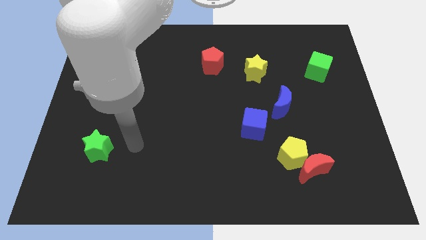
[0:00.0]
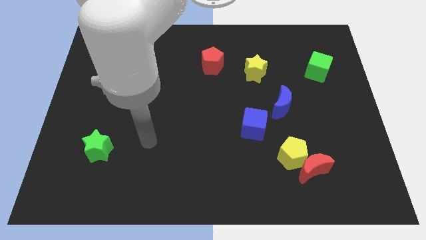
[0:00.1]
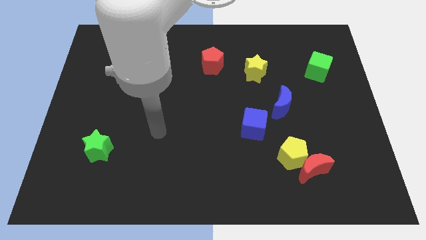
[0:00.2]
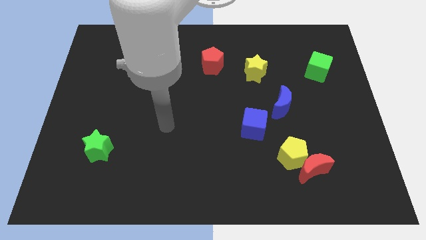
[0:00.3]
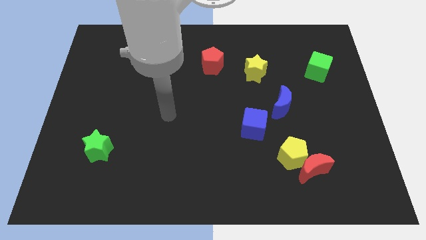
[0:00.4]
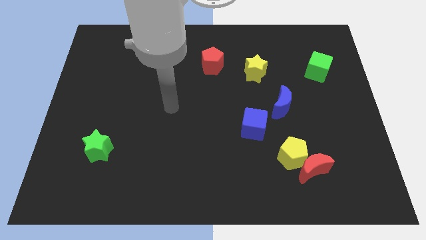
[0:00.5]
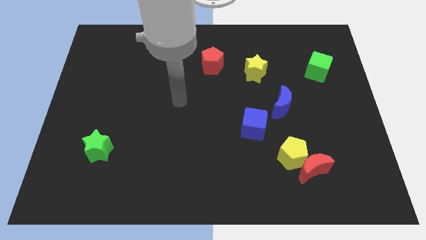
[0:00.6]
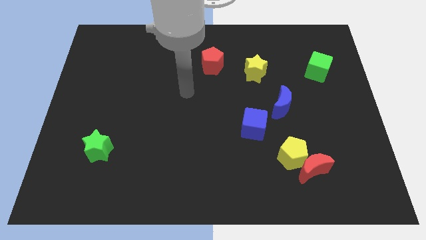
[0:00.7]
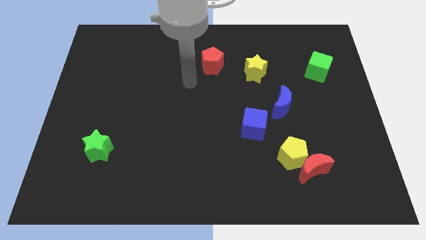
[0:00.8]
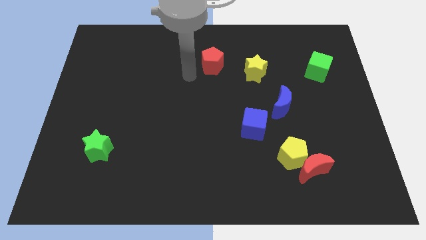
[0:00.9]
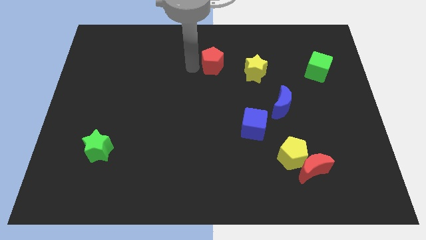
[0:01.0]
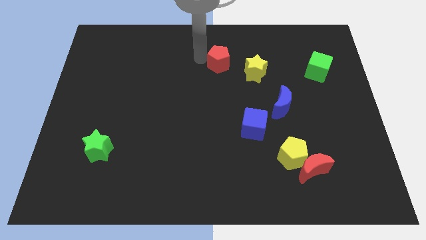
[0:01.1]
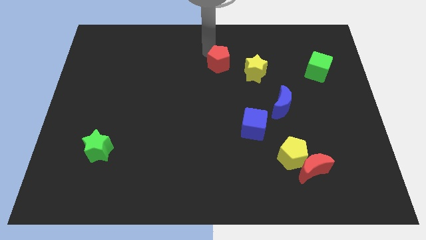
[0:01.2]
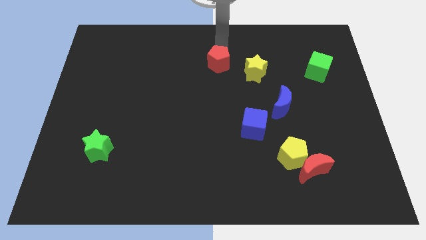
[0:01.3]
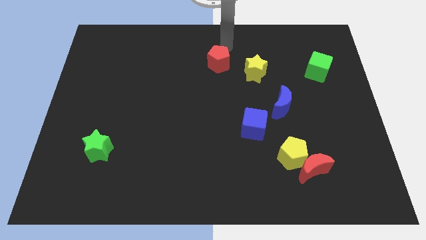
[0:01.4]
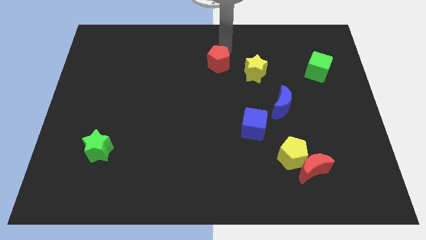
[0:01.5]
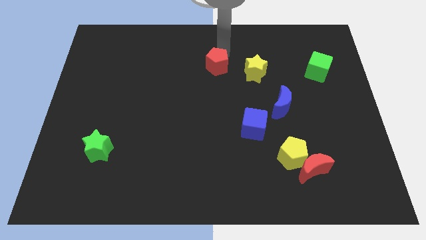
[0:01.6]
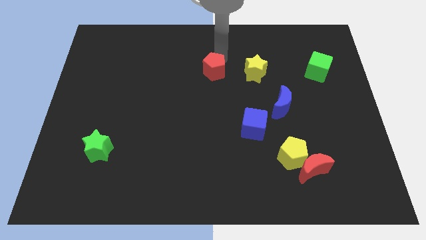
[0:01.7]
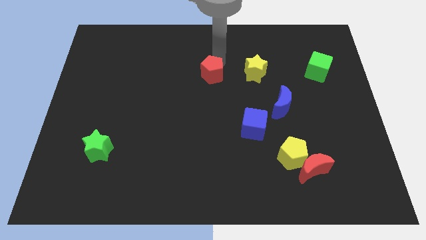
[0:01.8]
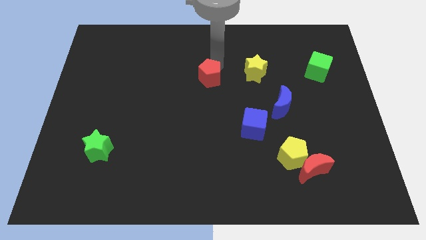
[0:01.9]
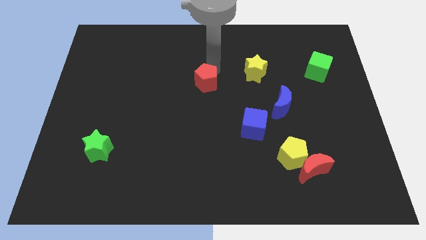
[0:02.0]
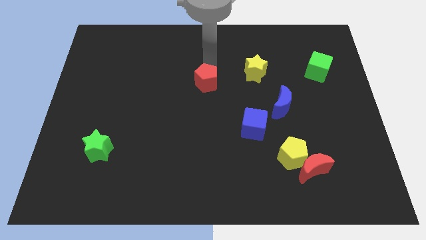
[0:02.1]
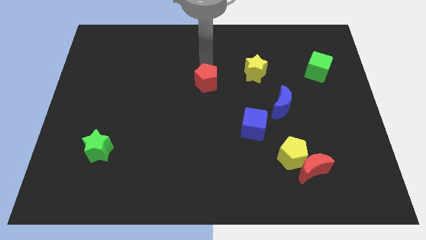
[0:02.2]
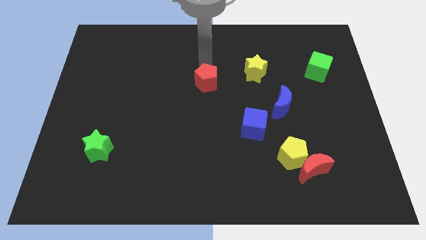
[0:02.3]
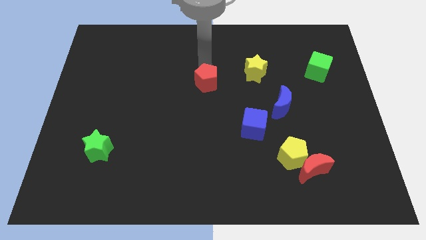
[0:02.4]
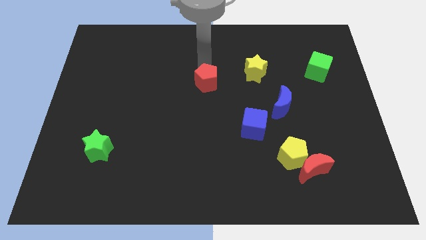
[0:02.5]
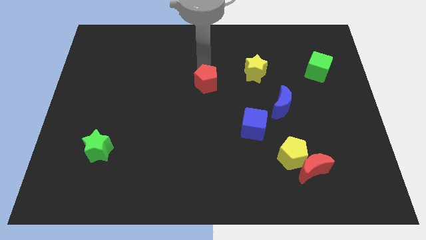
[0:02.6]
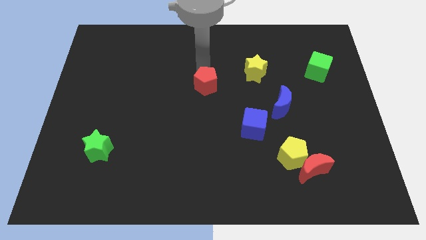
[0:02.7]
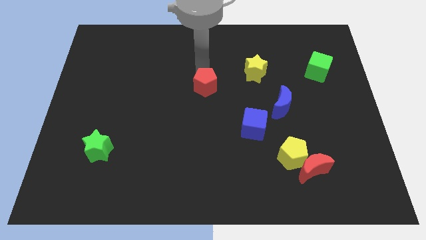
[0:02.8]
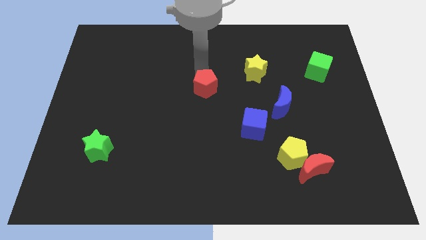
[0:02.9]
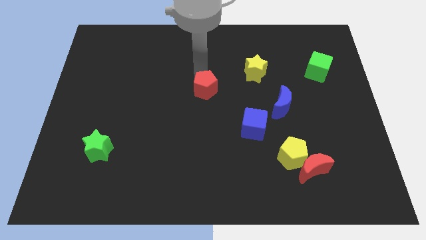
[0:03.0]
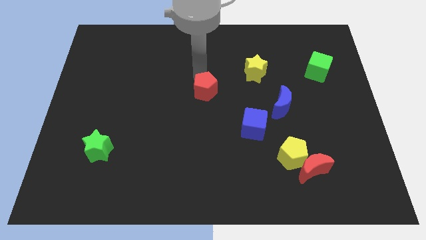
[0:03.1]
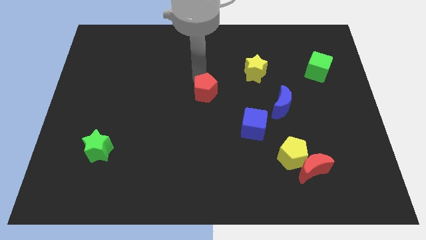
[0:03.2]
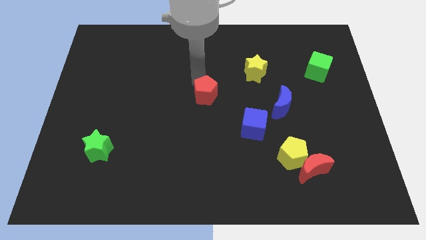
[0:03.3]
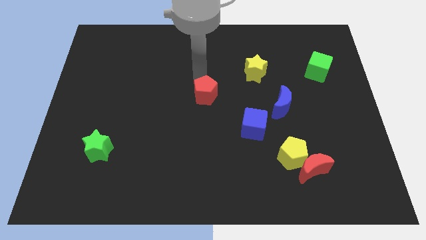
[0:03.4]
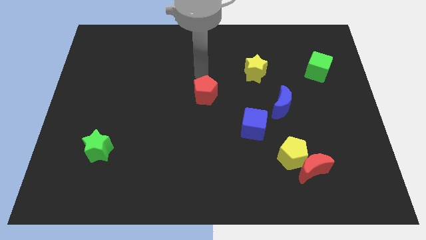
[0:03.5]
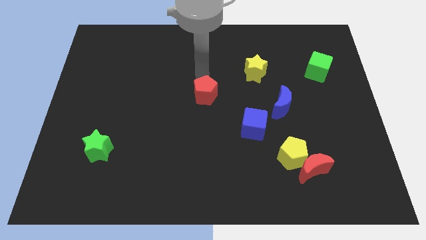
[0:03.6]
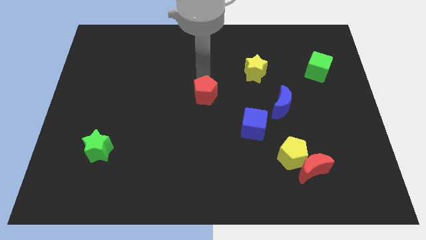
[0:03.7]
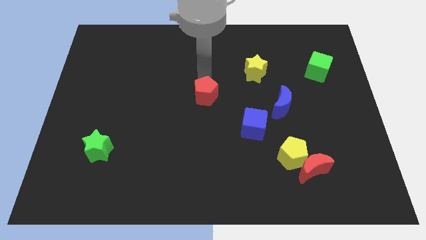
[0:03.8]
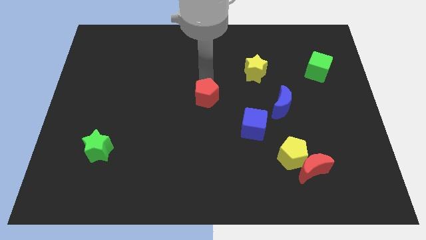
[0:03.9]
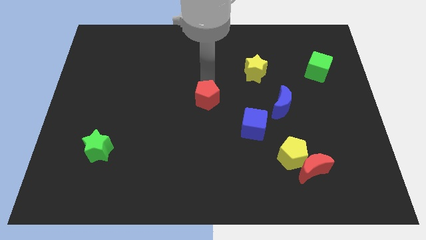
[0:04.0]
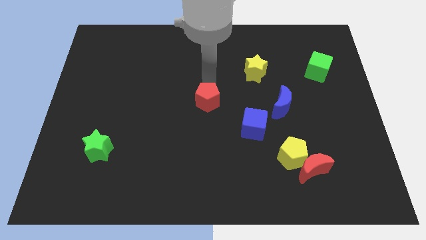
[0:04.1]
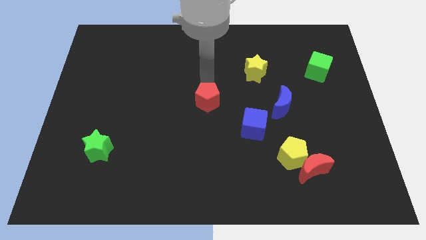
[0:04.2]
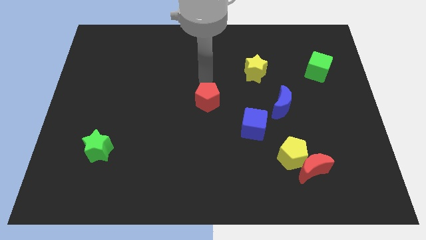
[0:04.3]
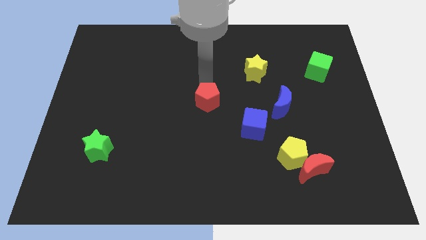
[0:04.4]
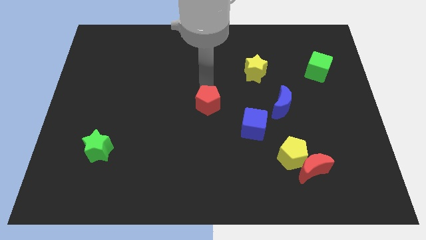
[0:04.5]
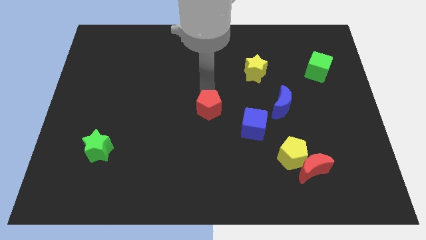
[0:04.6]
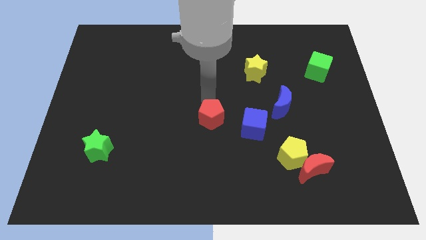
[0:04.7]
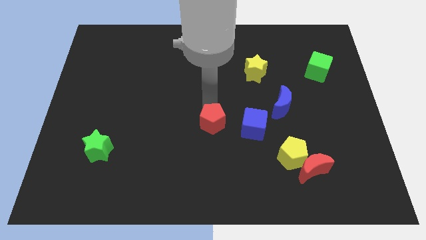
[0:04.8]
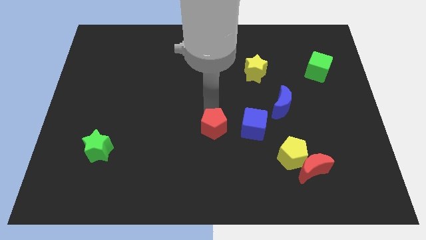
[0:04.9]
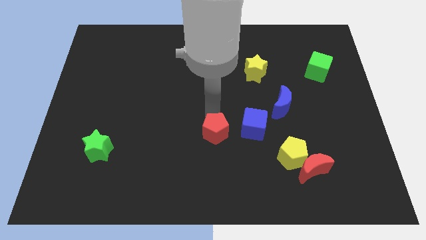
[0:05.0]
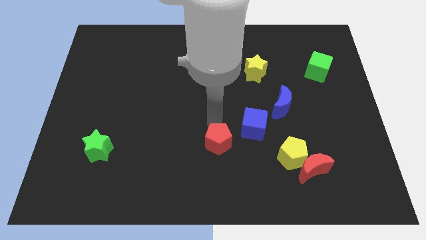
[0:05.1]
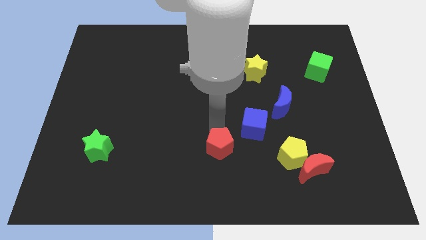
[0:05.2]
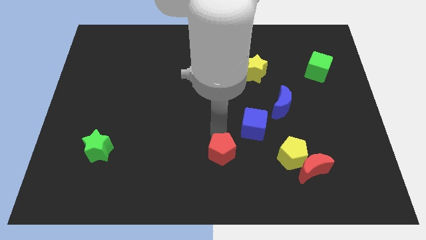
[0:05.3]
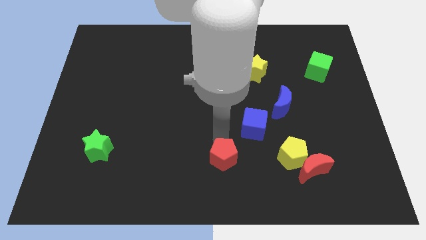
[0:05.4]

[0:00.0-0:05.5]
move the red pentagon to the bottom

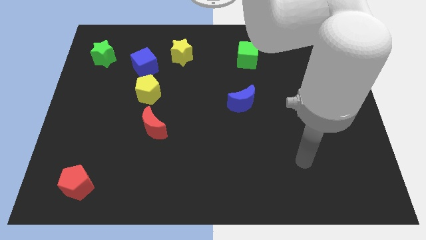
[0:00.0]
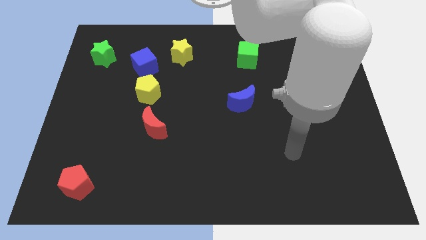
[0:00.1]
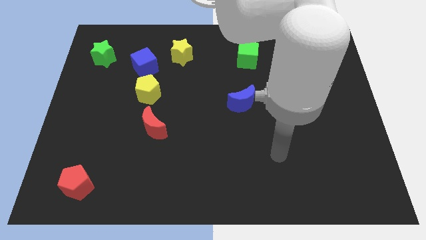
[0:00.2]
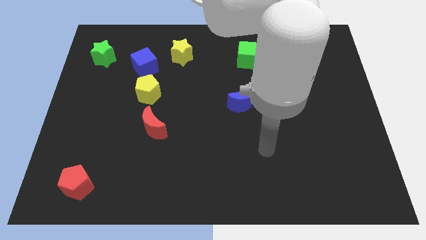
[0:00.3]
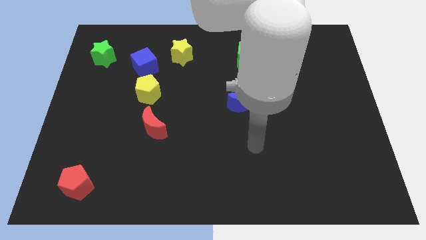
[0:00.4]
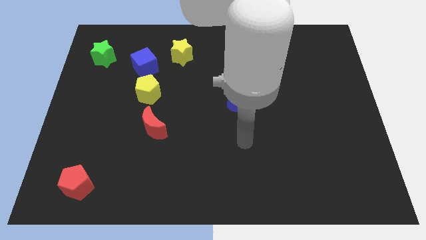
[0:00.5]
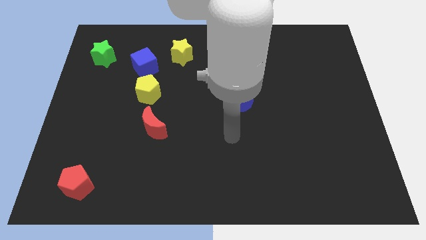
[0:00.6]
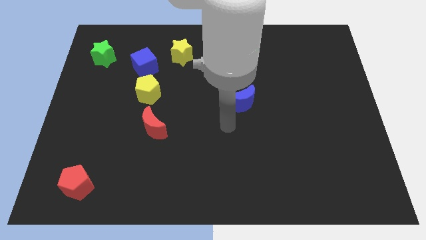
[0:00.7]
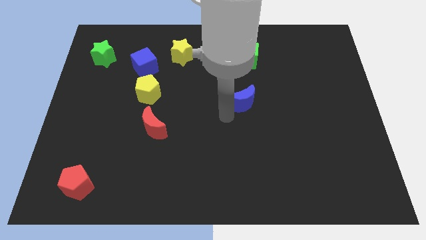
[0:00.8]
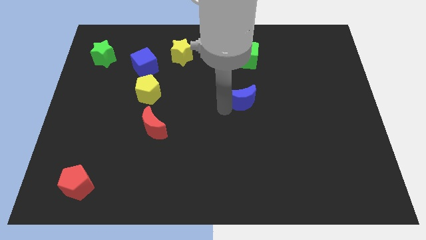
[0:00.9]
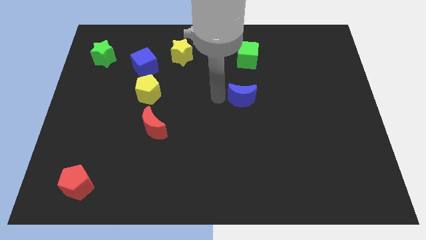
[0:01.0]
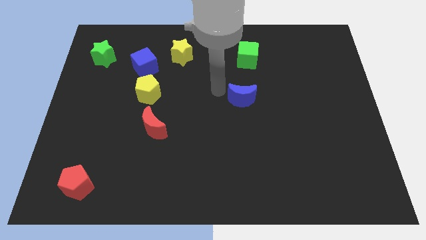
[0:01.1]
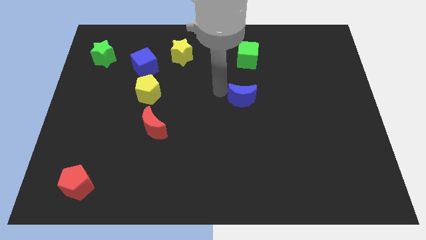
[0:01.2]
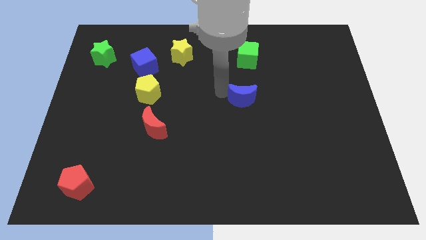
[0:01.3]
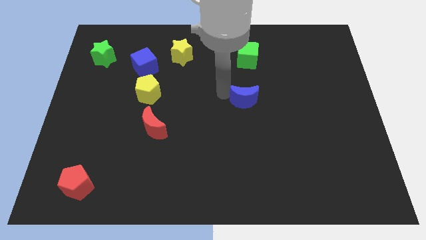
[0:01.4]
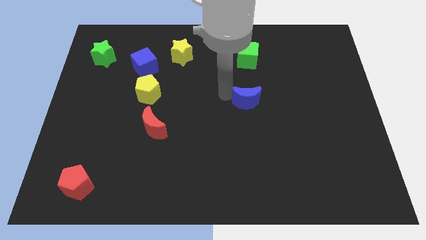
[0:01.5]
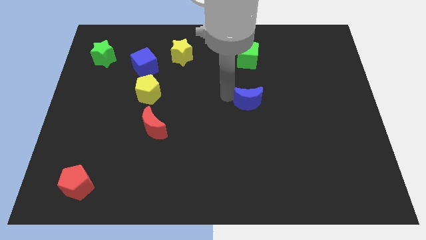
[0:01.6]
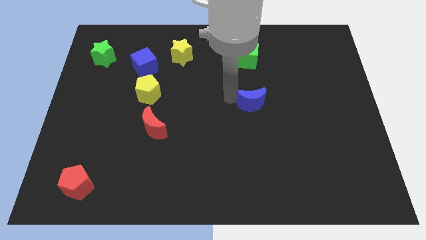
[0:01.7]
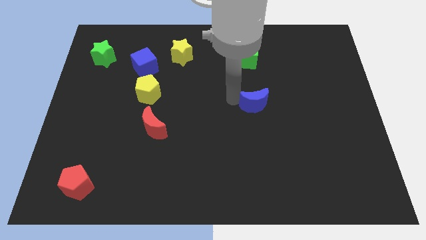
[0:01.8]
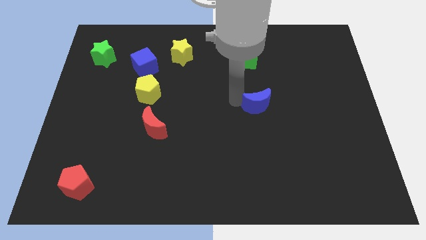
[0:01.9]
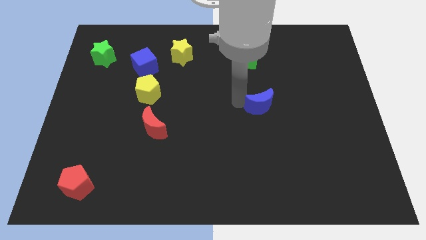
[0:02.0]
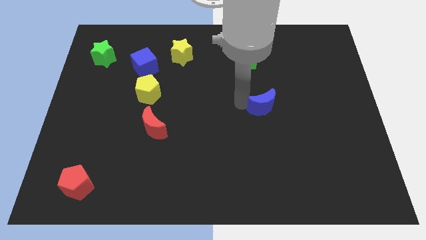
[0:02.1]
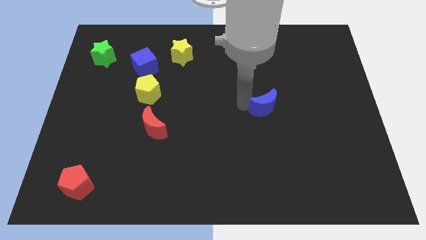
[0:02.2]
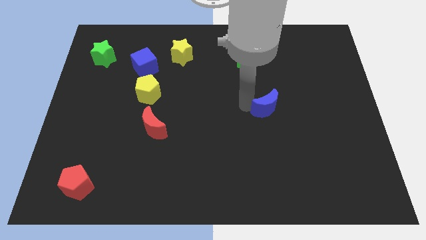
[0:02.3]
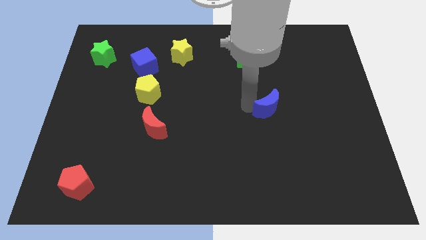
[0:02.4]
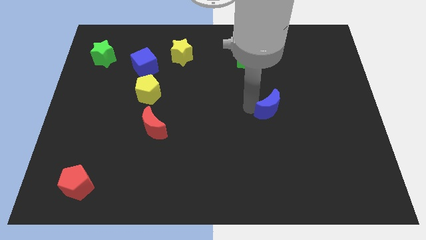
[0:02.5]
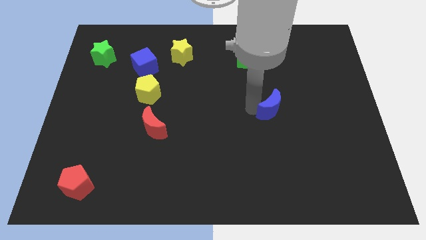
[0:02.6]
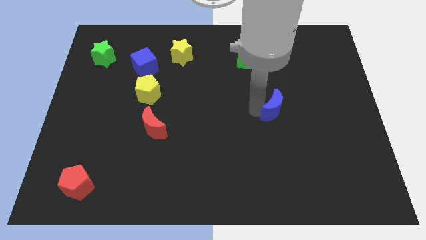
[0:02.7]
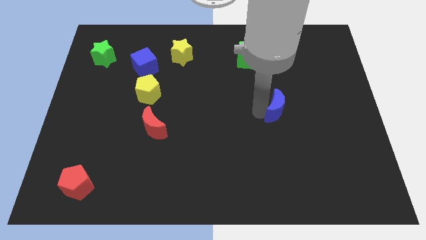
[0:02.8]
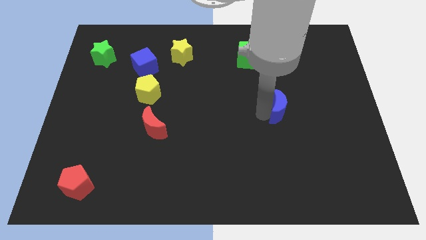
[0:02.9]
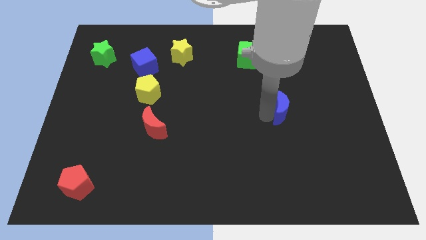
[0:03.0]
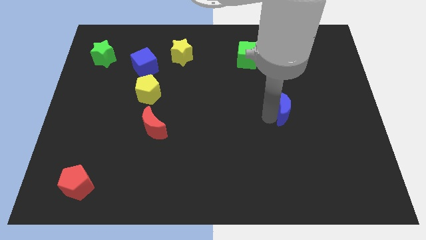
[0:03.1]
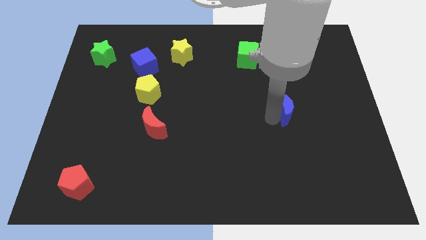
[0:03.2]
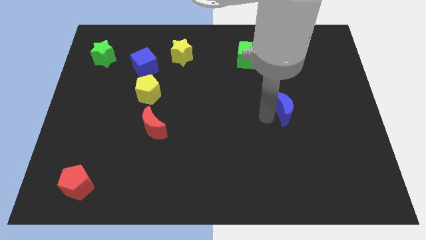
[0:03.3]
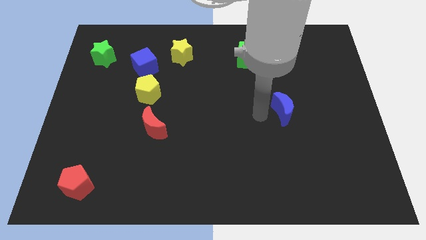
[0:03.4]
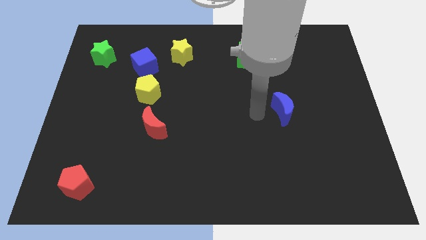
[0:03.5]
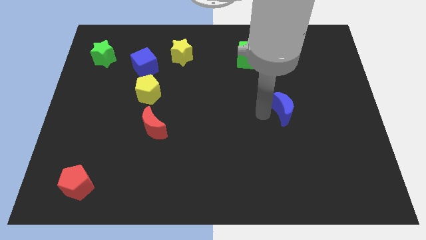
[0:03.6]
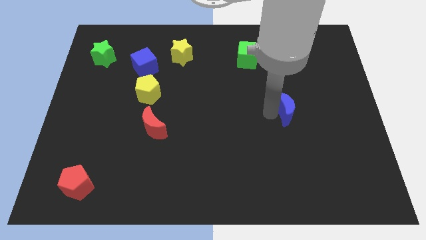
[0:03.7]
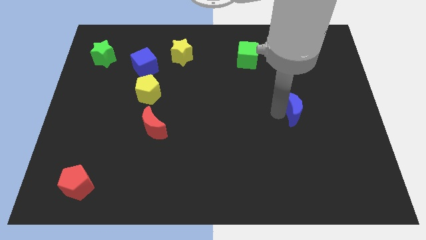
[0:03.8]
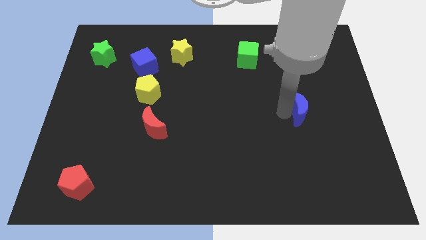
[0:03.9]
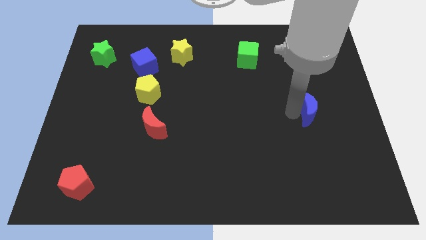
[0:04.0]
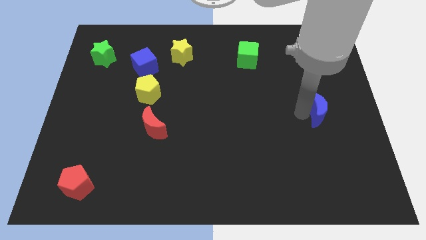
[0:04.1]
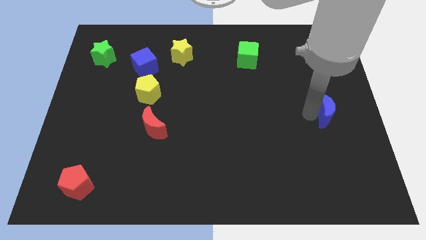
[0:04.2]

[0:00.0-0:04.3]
move the blue moon to the right side of the board
